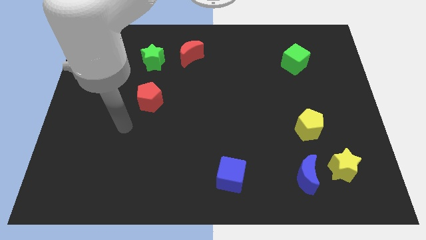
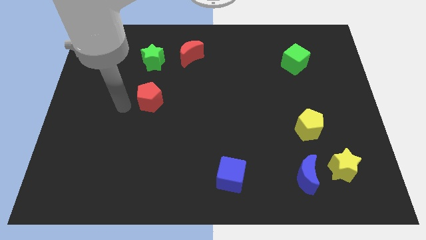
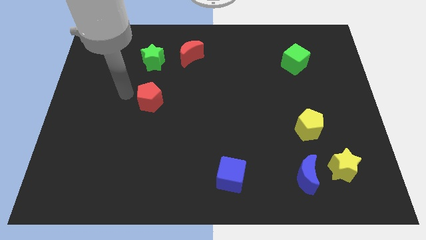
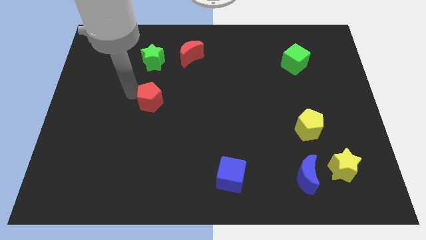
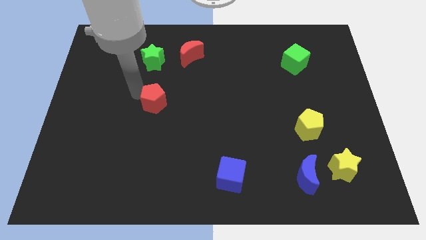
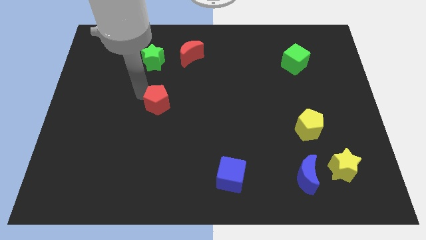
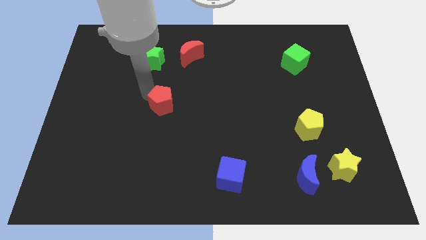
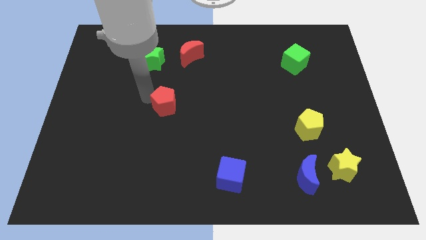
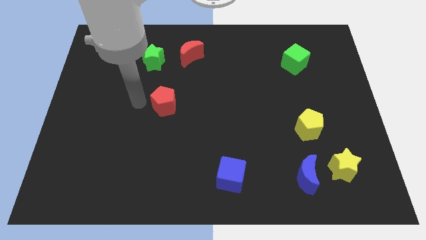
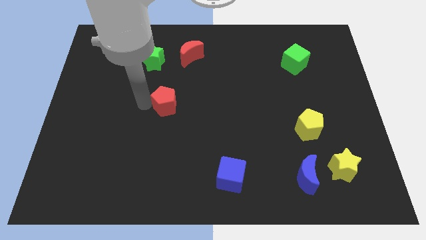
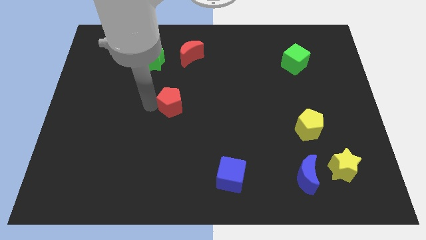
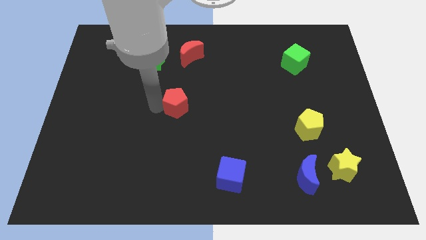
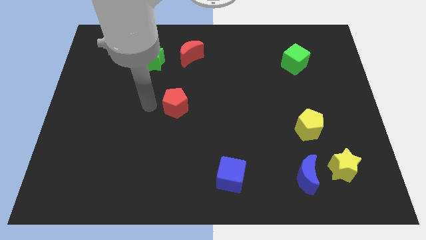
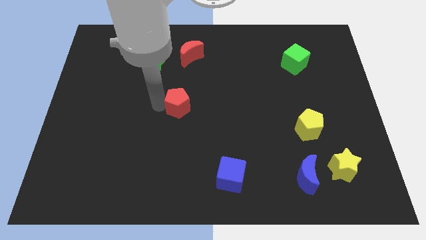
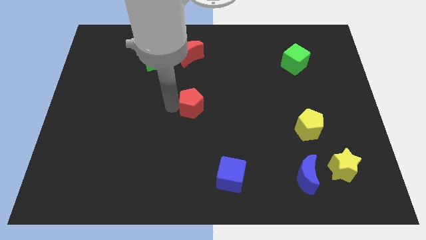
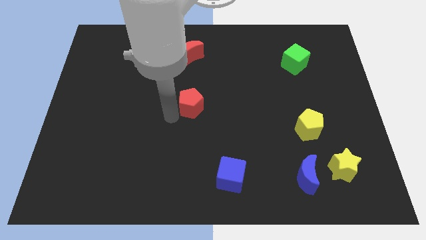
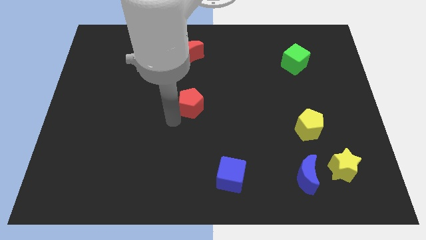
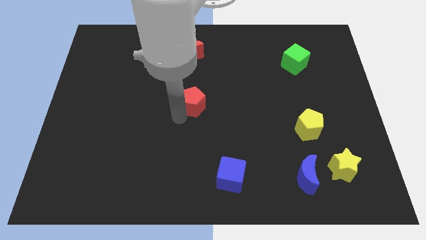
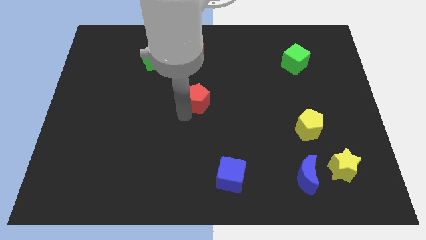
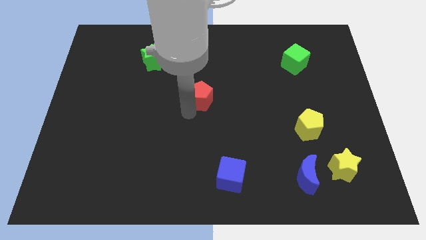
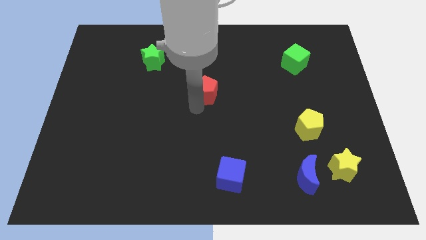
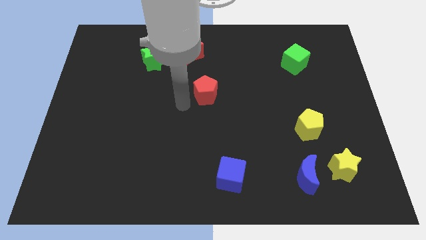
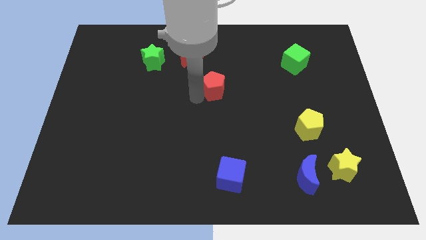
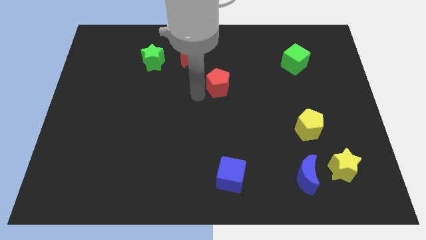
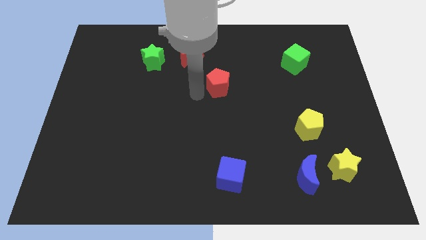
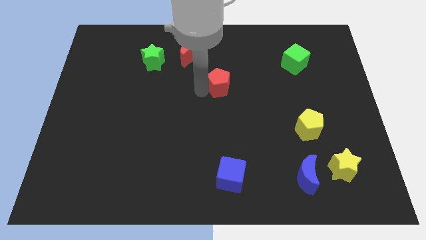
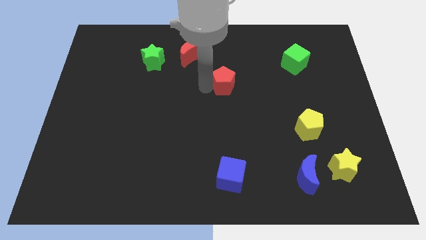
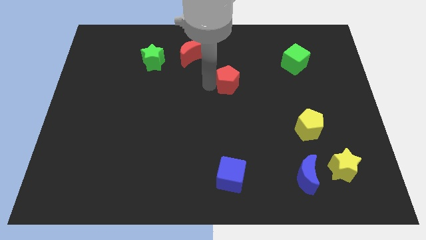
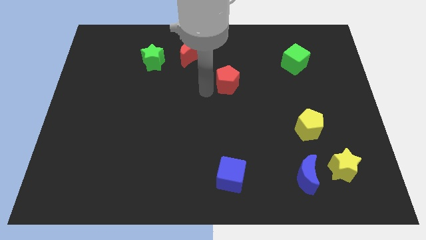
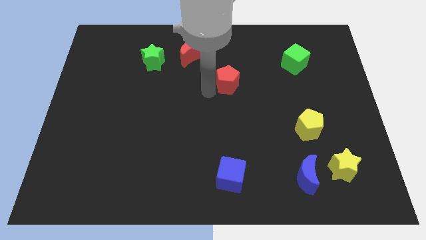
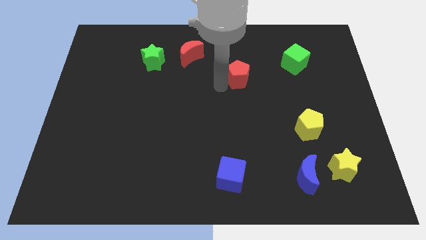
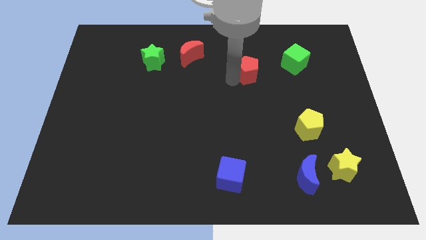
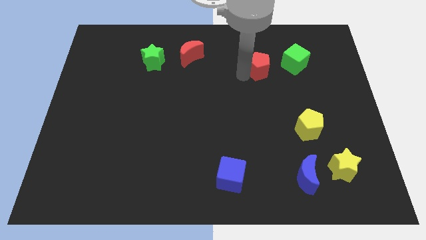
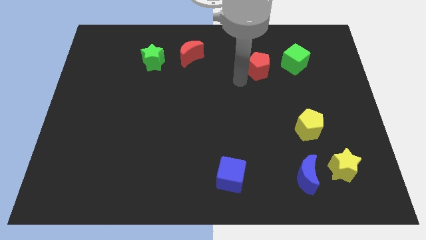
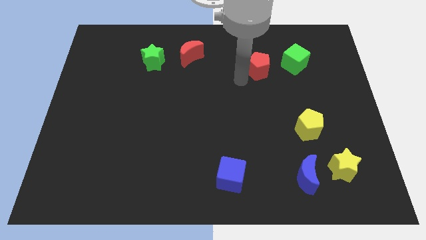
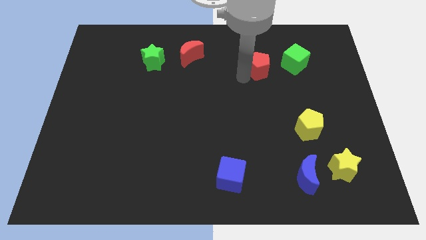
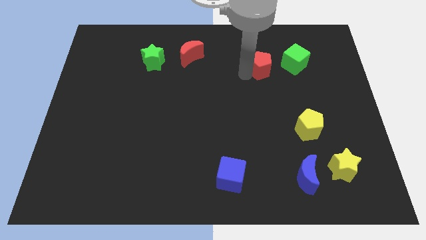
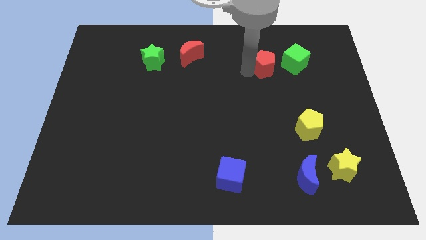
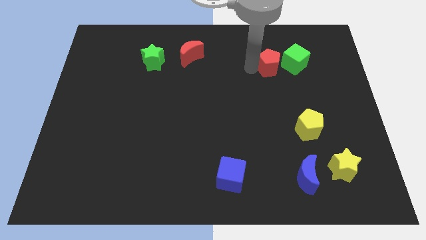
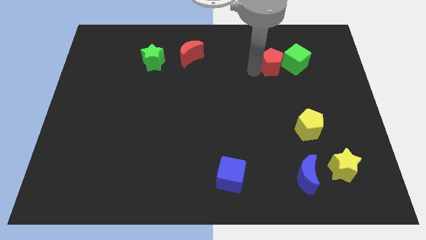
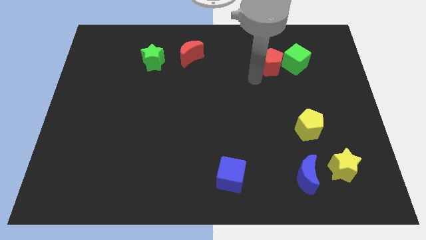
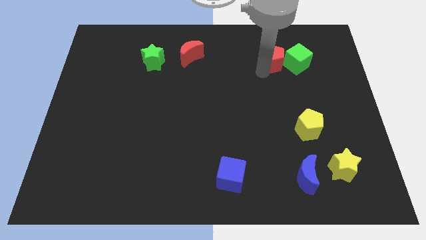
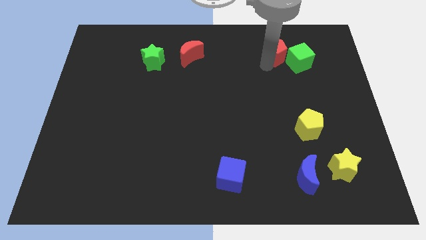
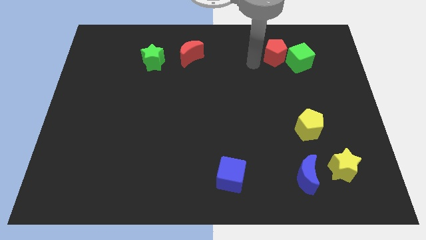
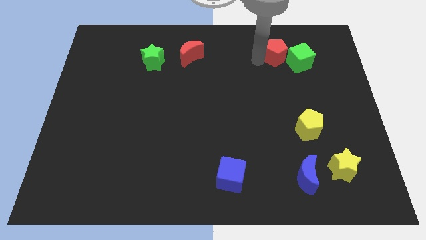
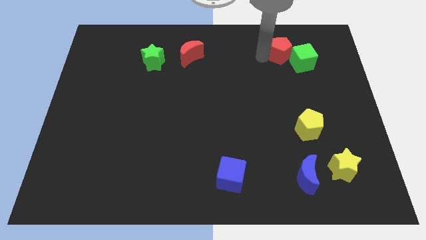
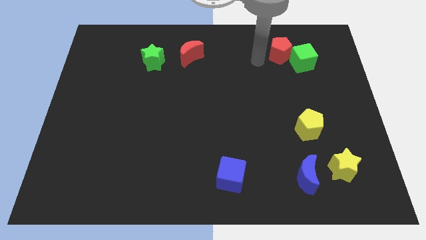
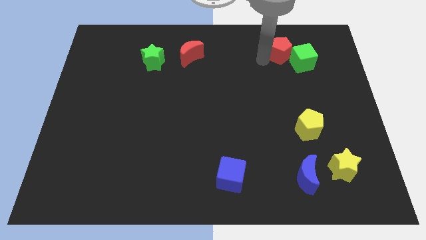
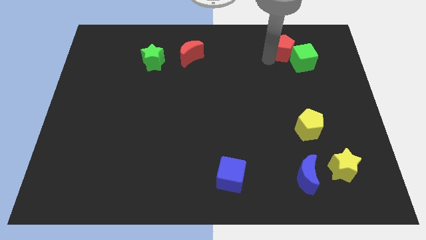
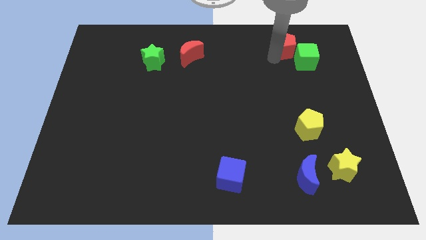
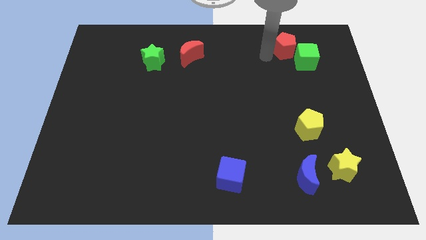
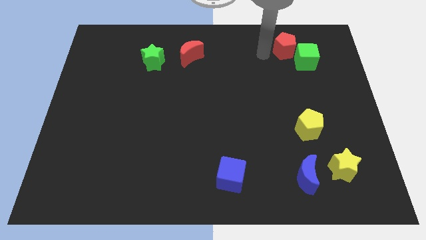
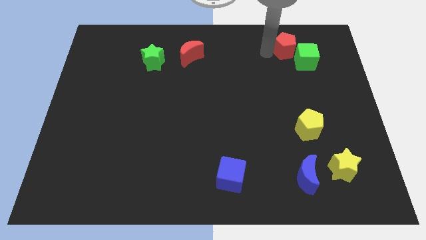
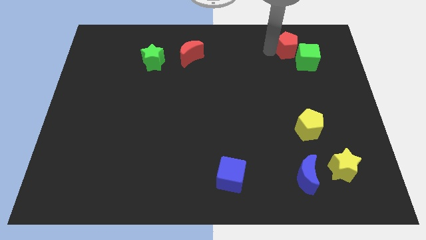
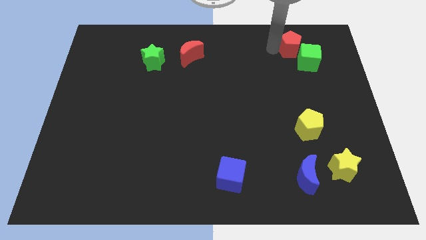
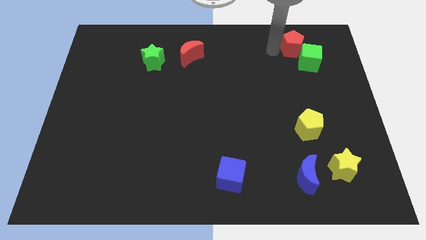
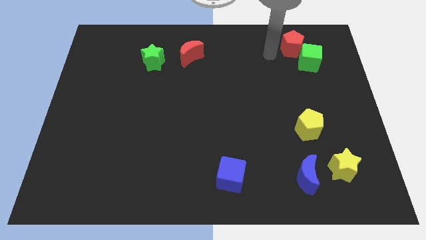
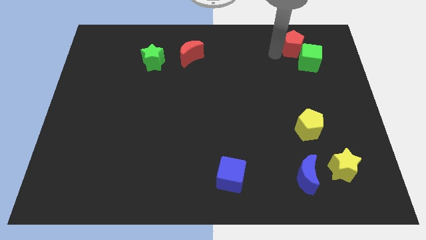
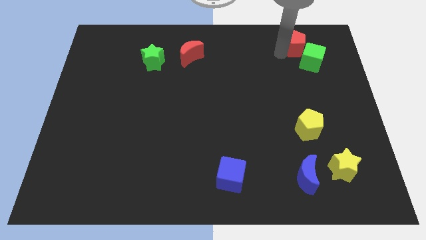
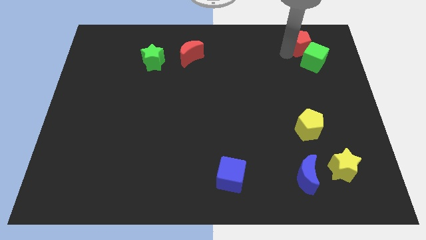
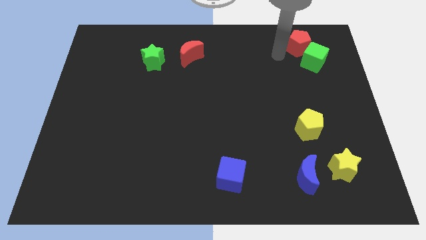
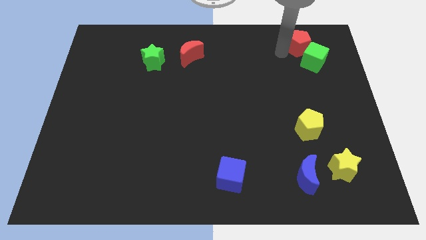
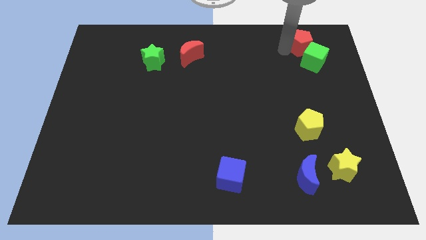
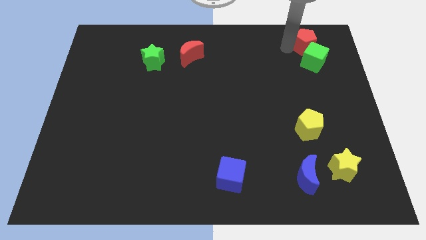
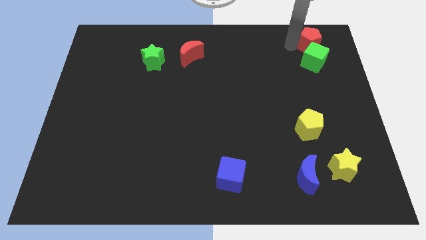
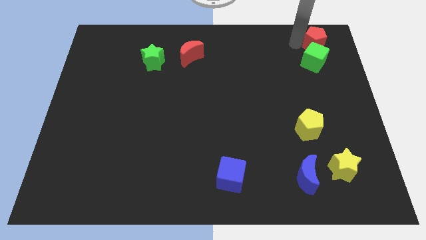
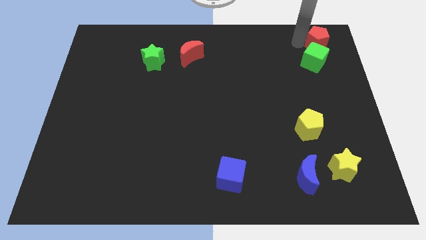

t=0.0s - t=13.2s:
slide the red pentagon to the upper right corner
